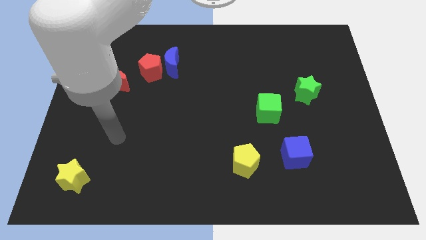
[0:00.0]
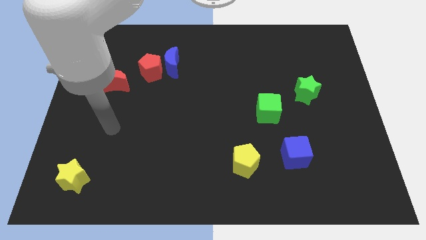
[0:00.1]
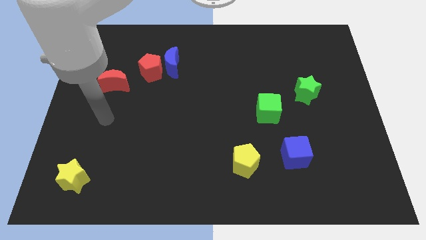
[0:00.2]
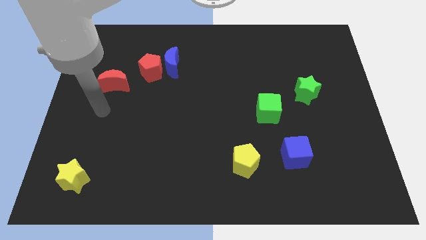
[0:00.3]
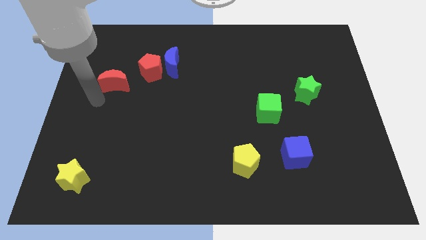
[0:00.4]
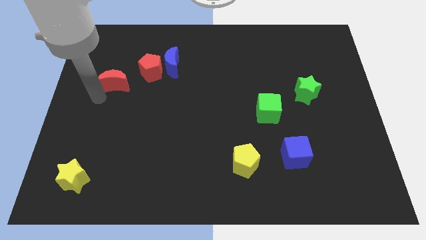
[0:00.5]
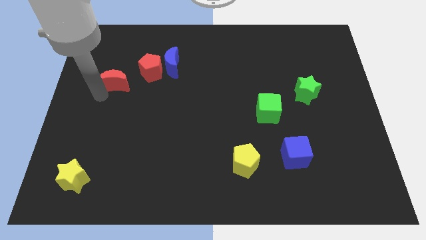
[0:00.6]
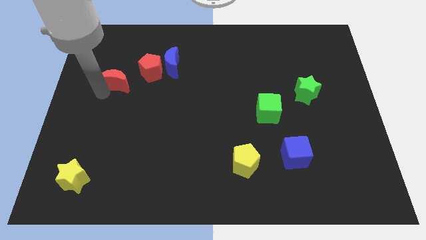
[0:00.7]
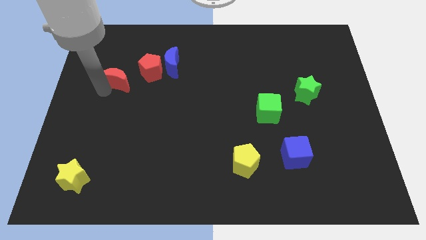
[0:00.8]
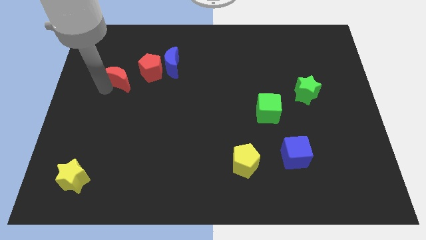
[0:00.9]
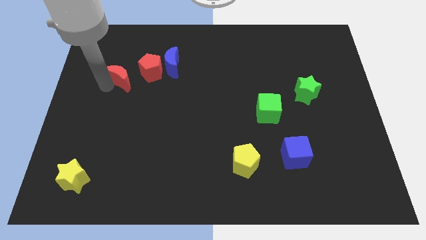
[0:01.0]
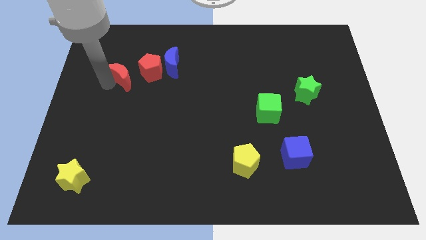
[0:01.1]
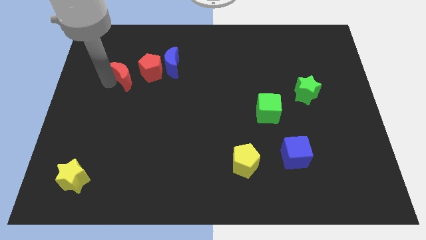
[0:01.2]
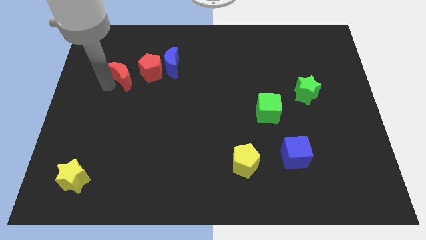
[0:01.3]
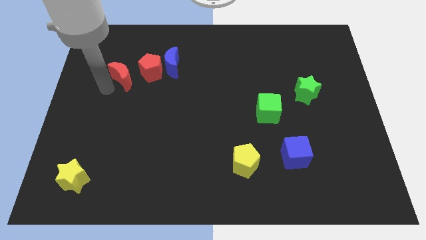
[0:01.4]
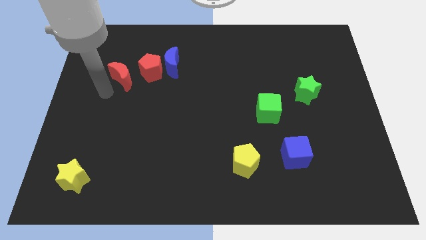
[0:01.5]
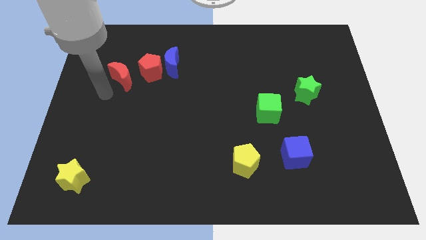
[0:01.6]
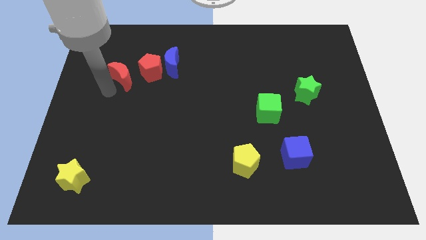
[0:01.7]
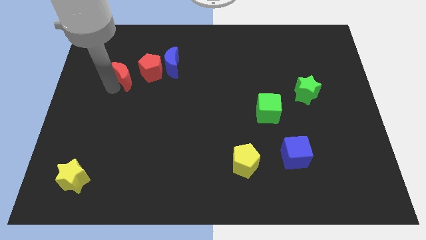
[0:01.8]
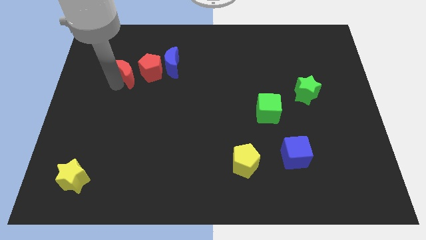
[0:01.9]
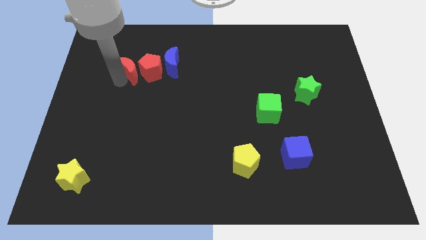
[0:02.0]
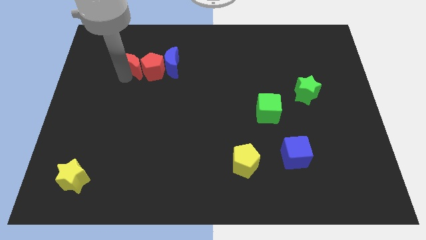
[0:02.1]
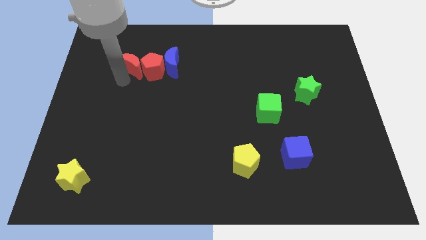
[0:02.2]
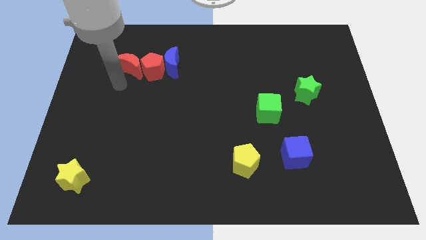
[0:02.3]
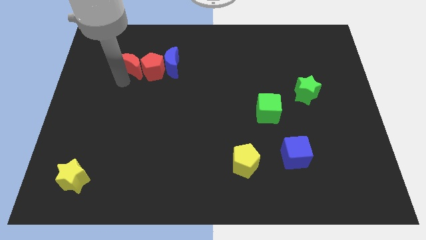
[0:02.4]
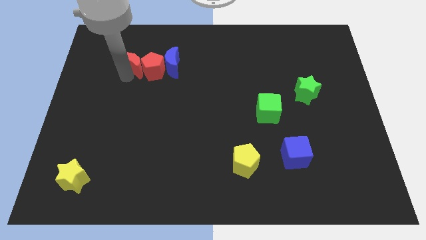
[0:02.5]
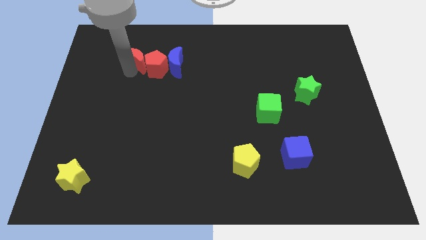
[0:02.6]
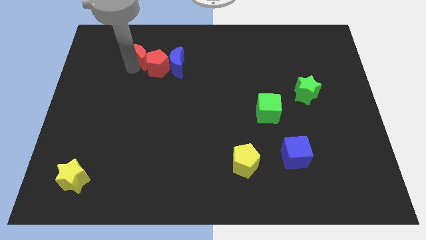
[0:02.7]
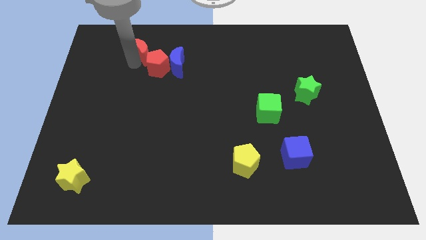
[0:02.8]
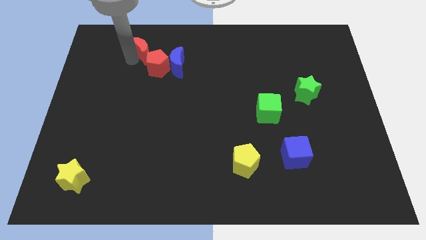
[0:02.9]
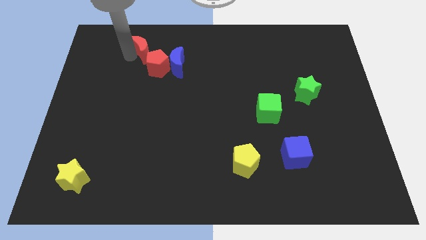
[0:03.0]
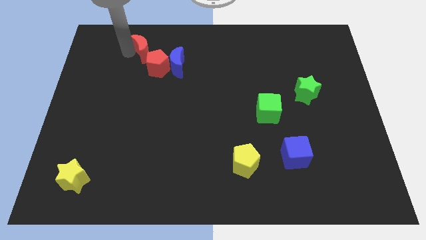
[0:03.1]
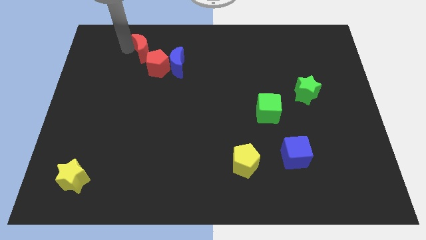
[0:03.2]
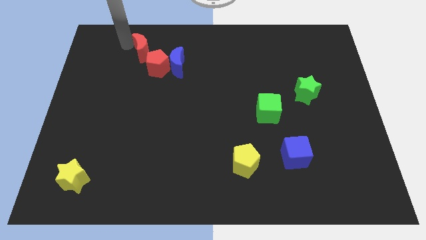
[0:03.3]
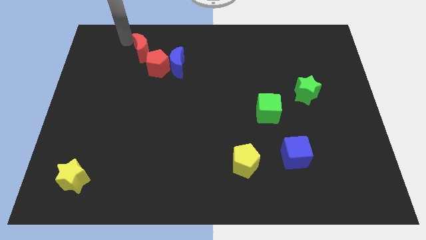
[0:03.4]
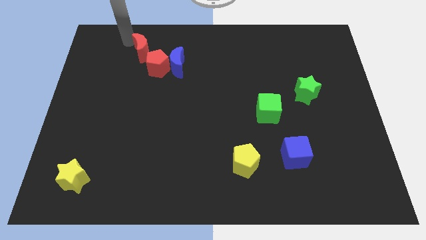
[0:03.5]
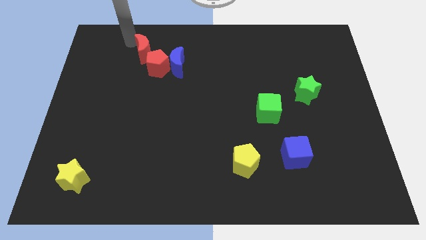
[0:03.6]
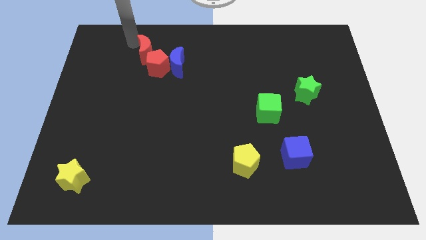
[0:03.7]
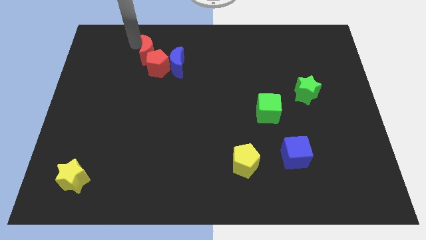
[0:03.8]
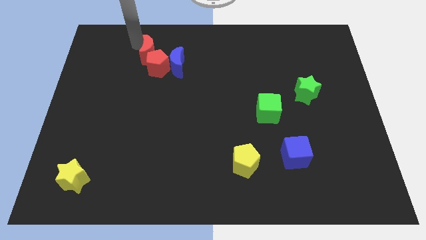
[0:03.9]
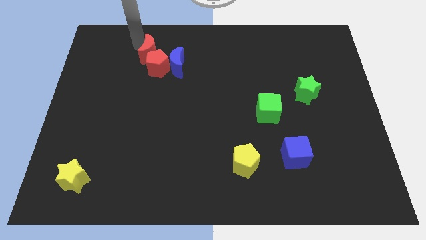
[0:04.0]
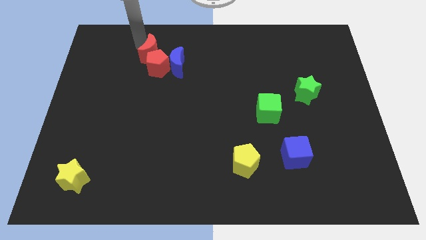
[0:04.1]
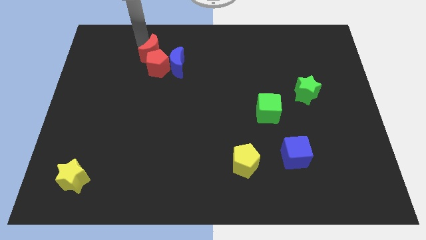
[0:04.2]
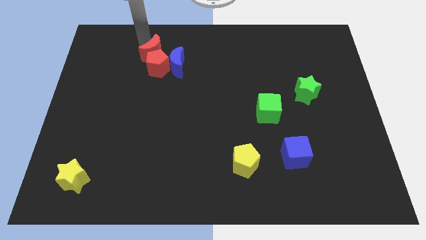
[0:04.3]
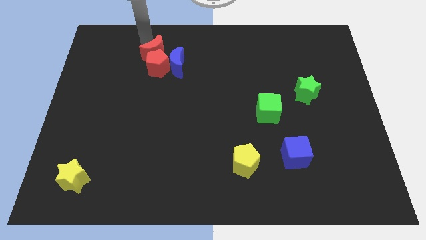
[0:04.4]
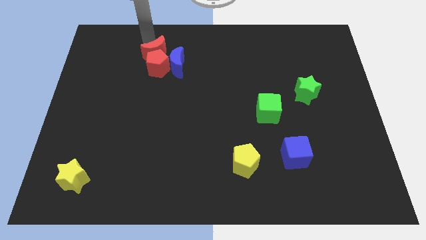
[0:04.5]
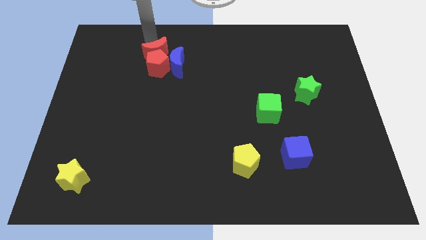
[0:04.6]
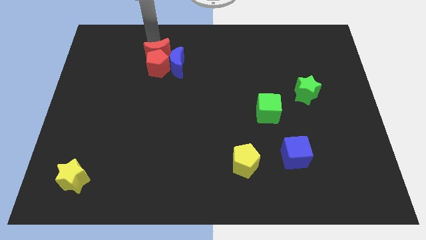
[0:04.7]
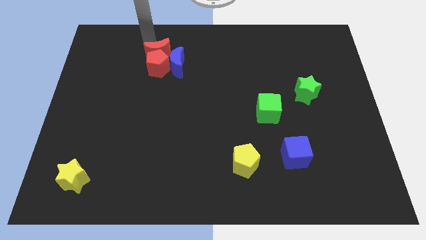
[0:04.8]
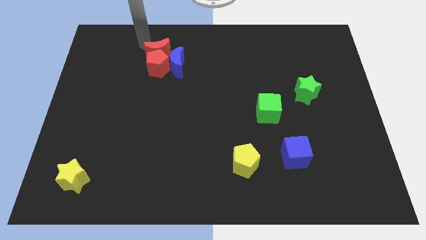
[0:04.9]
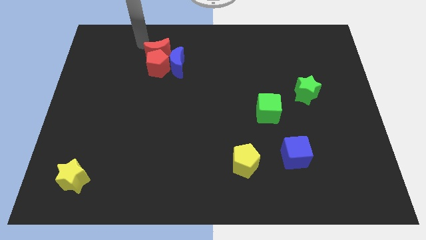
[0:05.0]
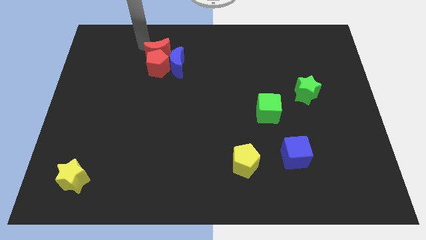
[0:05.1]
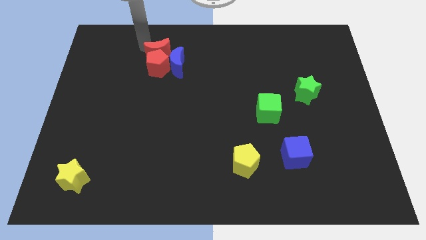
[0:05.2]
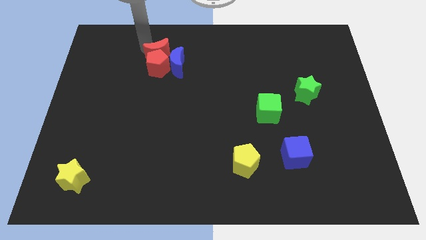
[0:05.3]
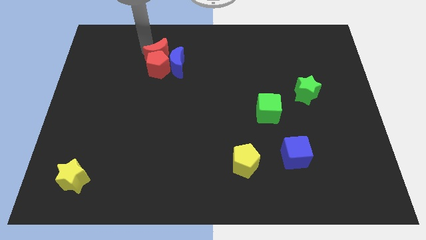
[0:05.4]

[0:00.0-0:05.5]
slide the red moon towards the blue moon

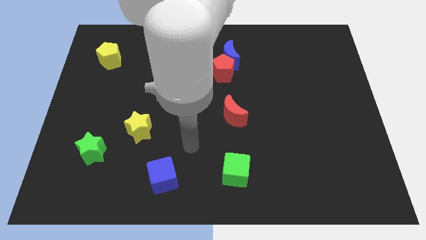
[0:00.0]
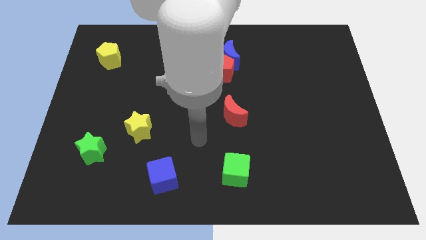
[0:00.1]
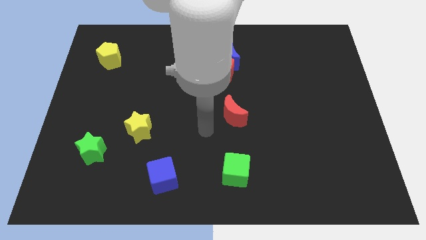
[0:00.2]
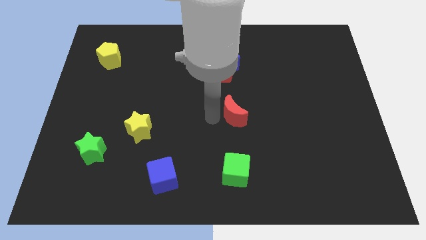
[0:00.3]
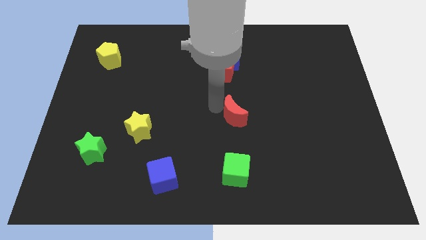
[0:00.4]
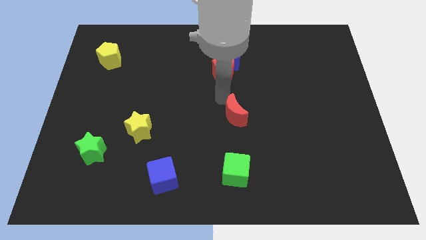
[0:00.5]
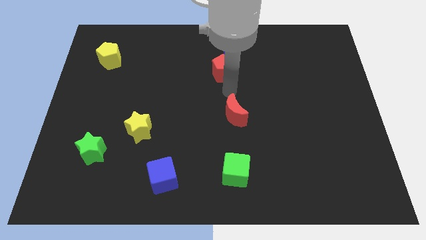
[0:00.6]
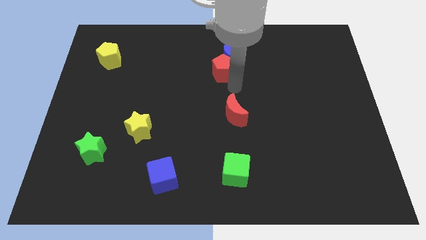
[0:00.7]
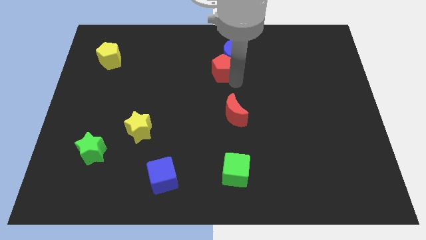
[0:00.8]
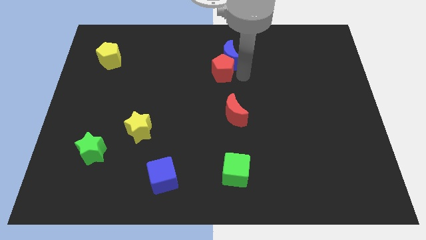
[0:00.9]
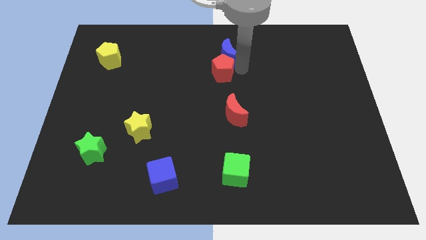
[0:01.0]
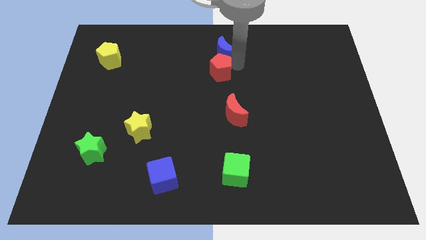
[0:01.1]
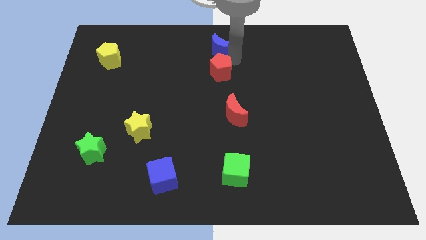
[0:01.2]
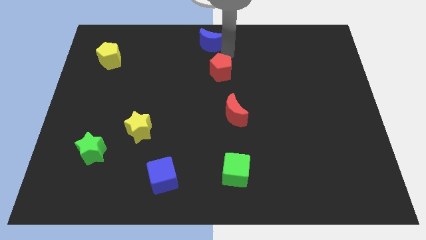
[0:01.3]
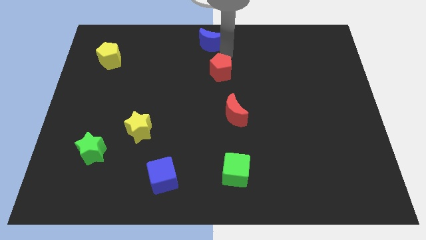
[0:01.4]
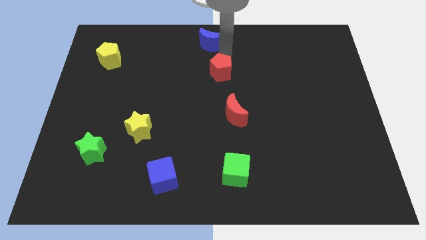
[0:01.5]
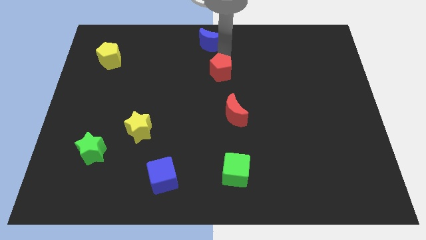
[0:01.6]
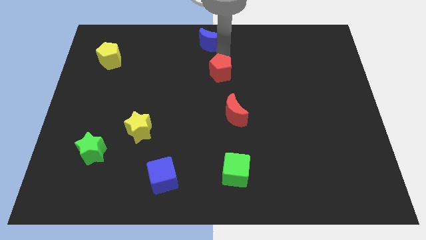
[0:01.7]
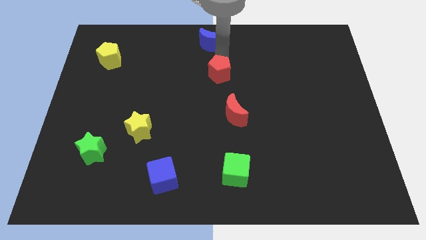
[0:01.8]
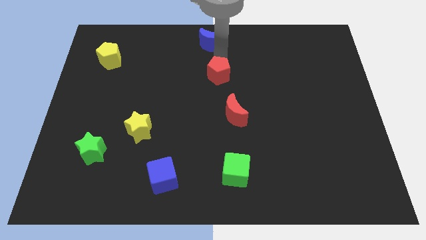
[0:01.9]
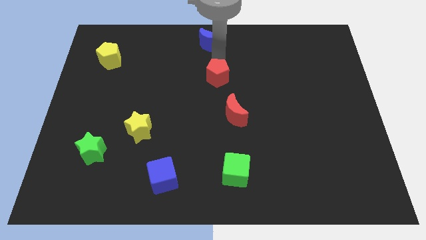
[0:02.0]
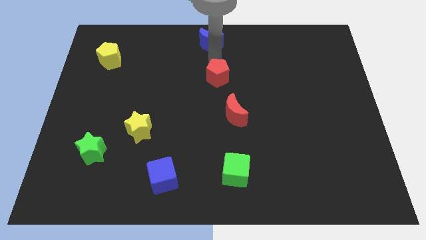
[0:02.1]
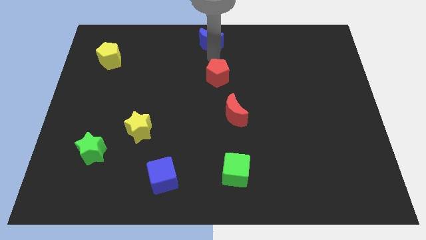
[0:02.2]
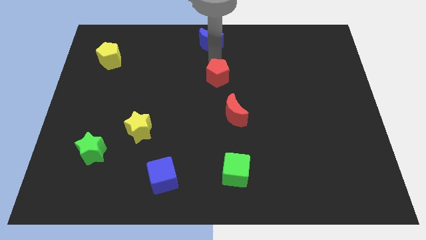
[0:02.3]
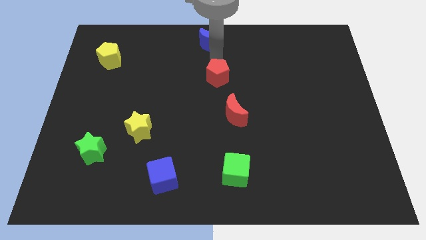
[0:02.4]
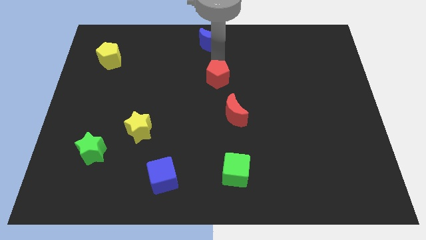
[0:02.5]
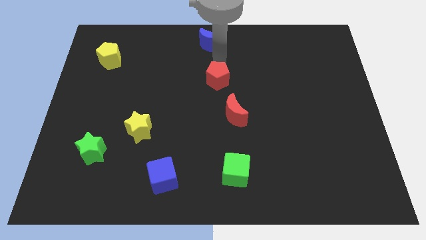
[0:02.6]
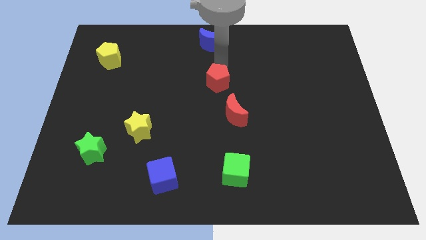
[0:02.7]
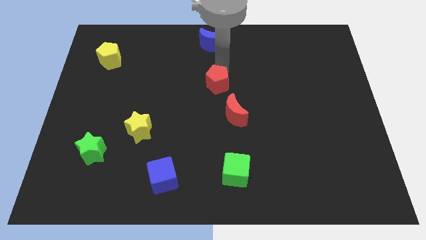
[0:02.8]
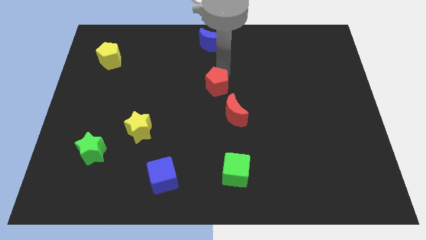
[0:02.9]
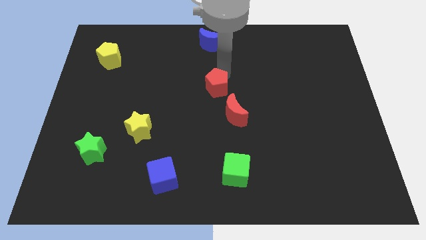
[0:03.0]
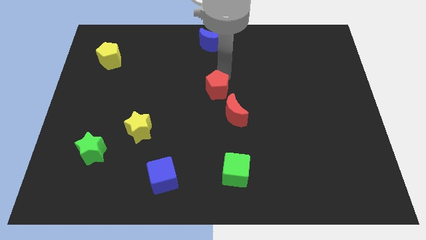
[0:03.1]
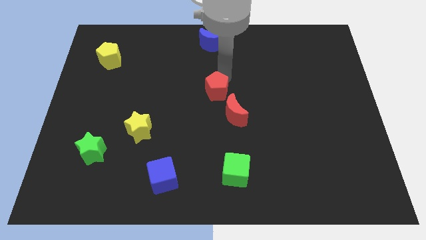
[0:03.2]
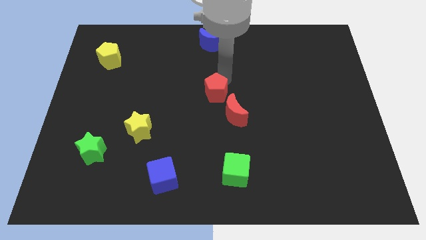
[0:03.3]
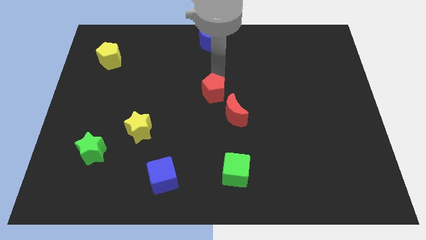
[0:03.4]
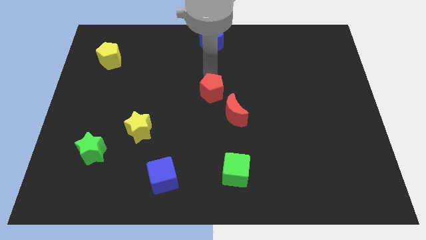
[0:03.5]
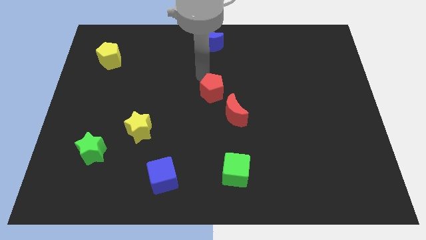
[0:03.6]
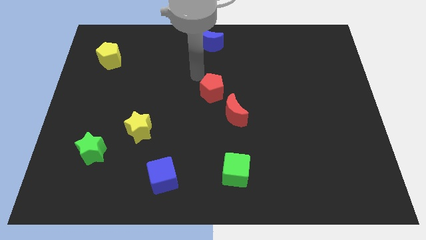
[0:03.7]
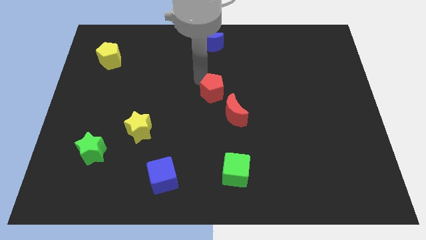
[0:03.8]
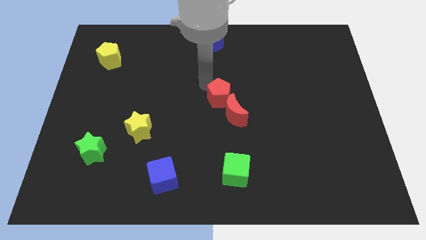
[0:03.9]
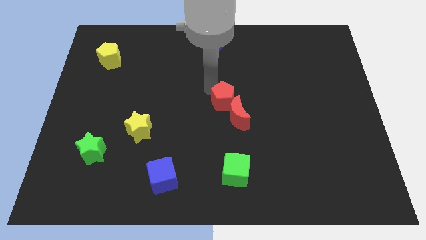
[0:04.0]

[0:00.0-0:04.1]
slide the red pentagon close to the red moon
